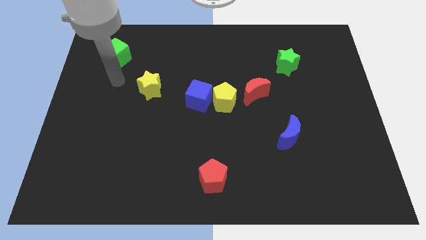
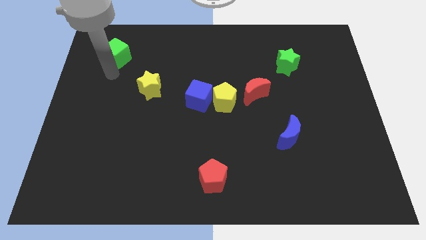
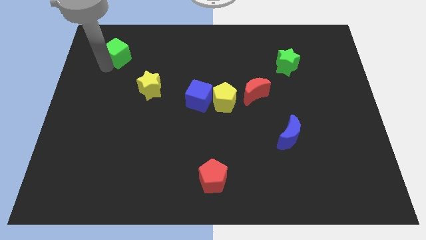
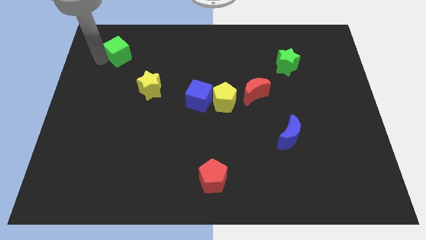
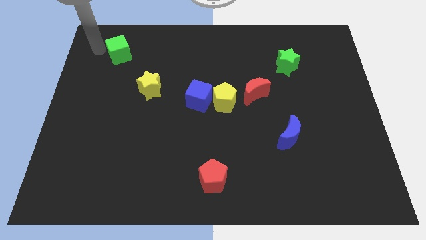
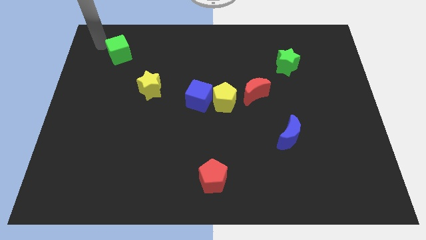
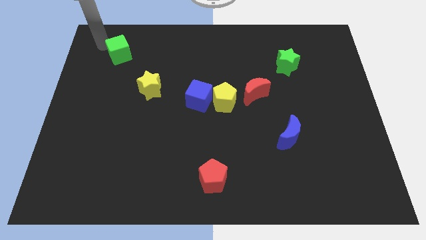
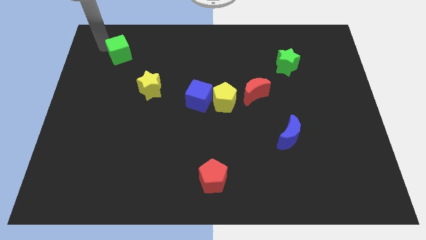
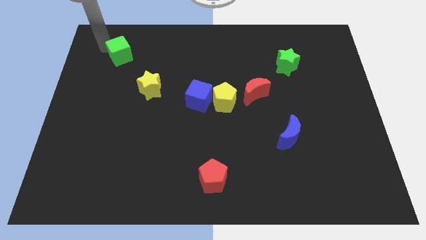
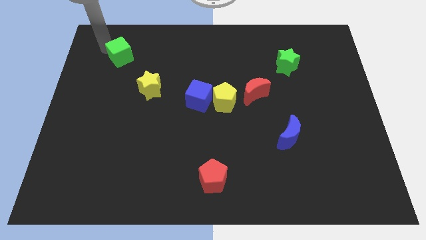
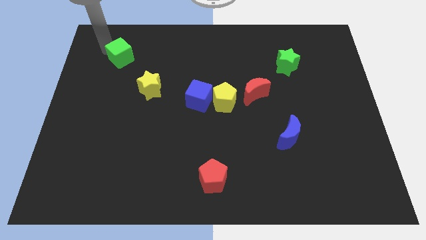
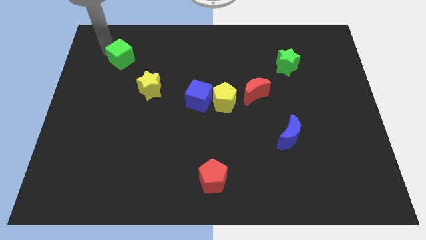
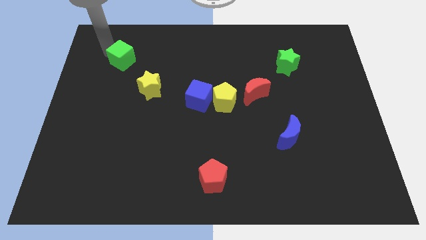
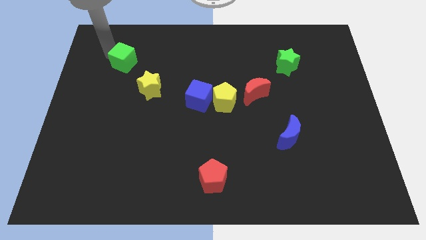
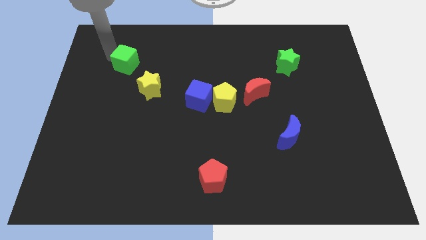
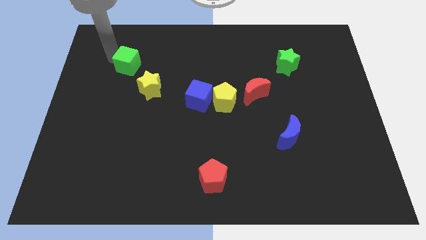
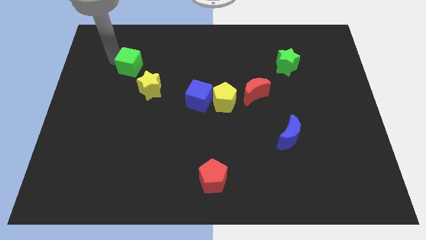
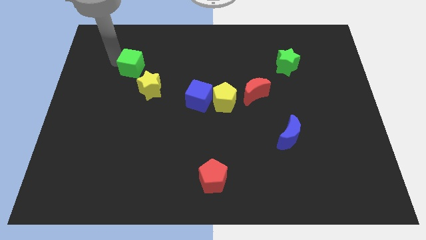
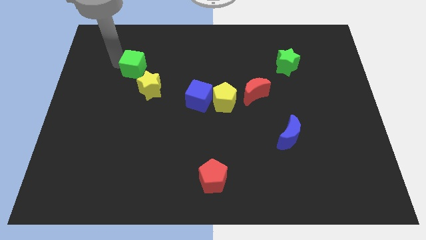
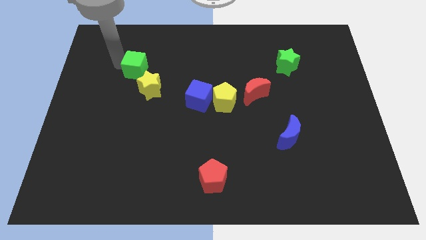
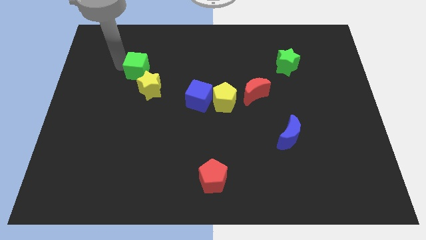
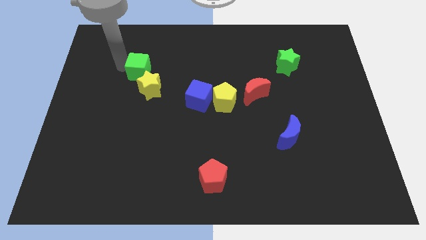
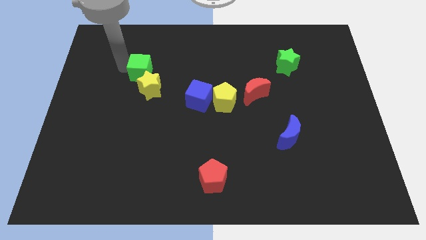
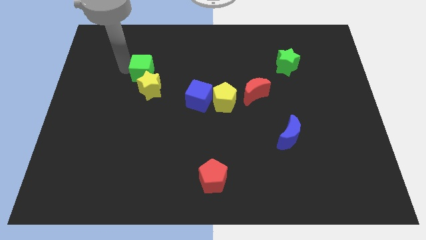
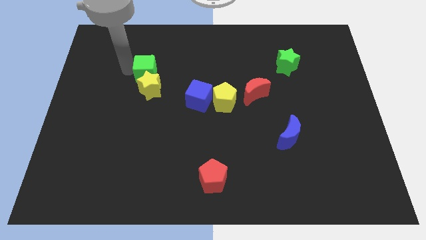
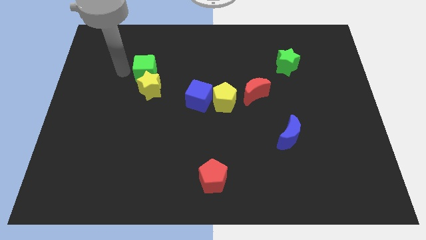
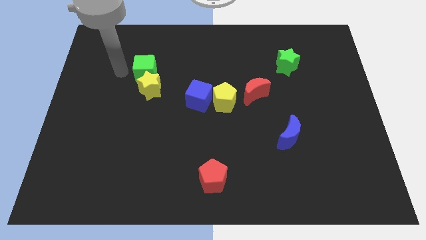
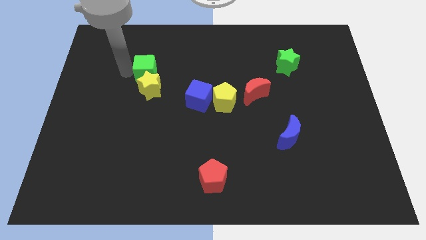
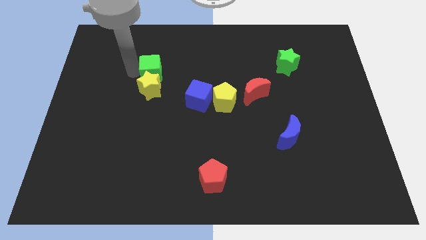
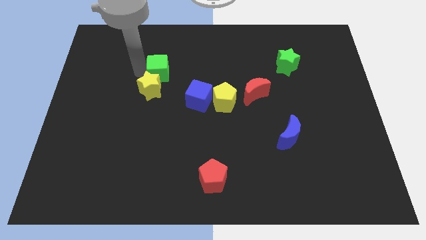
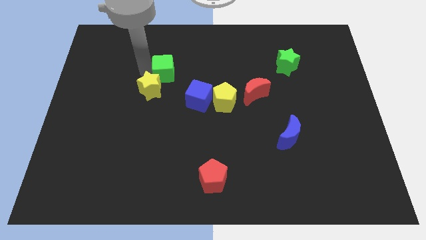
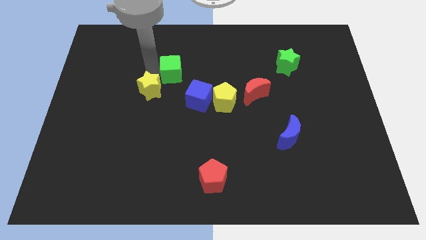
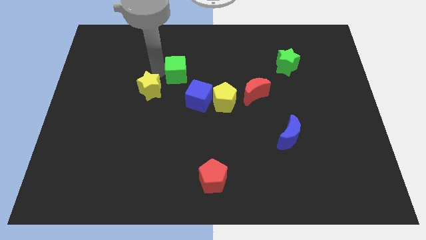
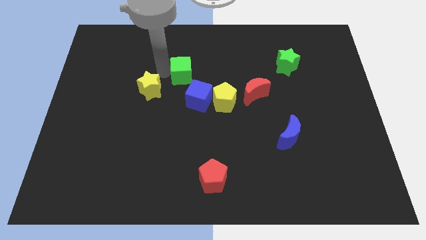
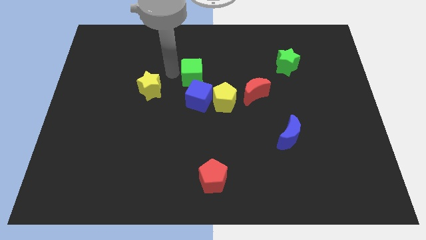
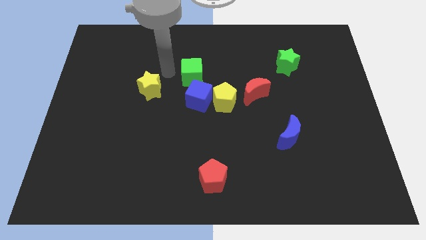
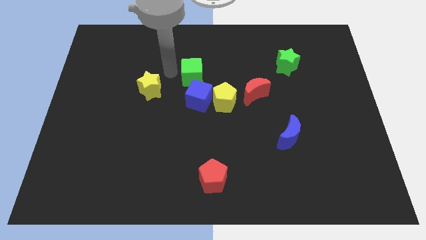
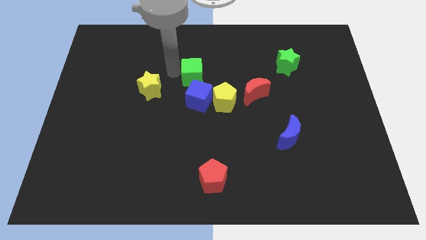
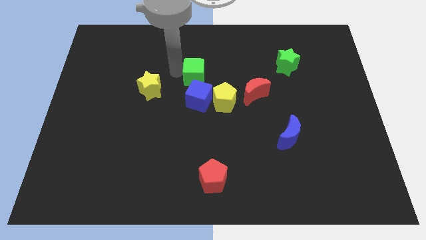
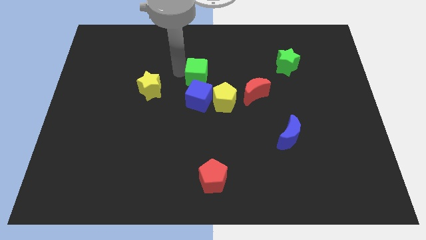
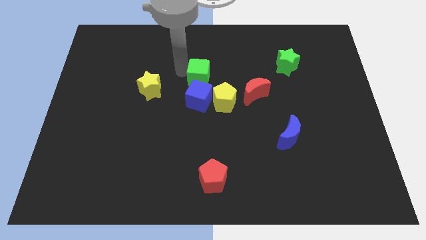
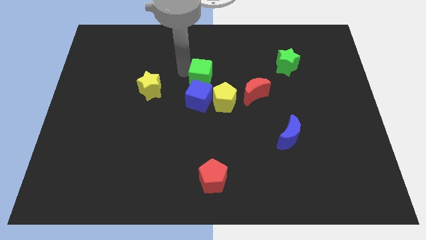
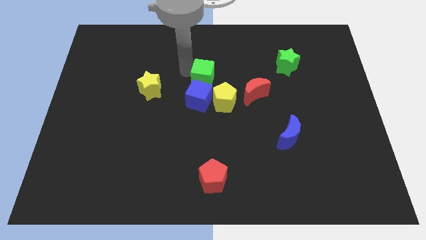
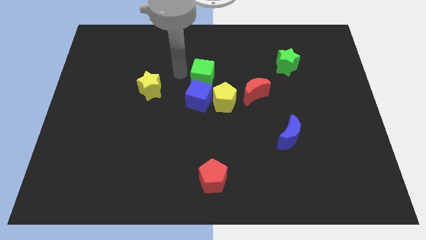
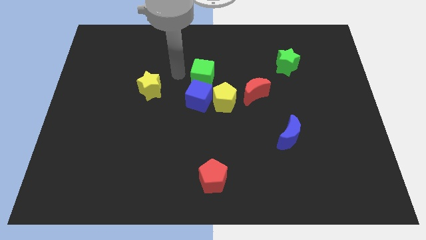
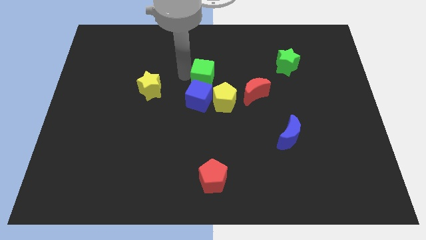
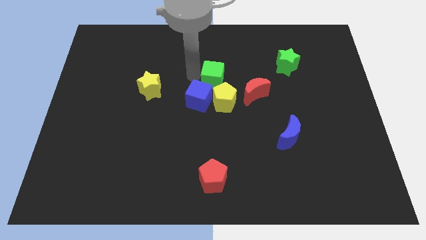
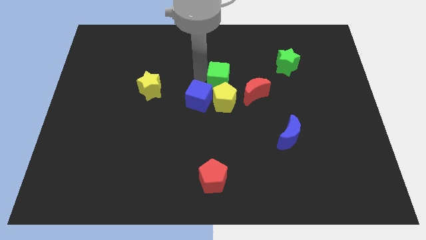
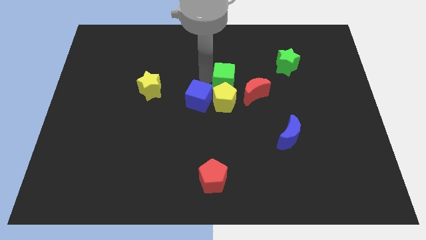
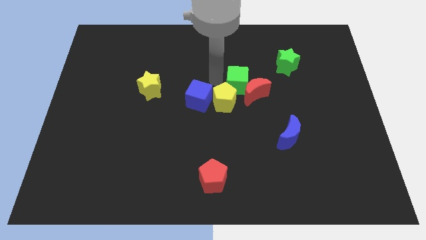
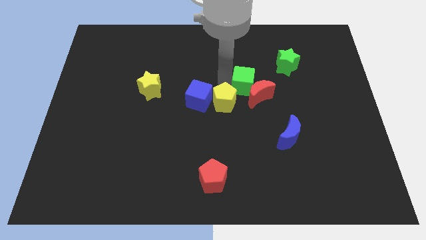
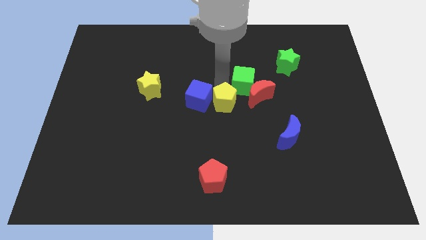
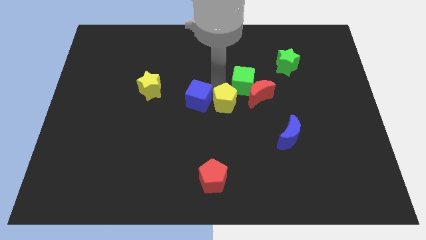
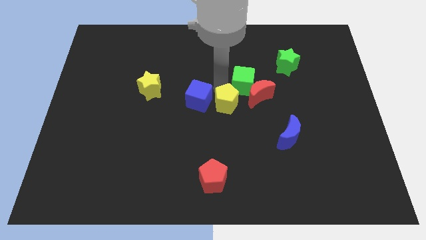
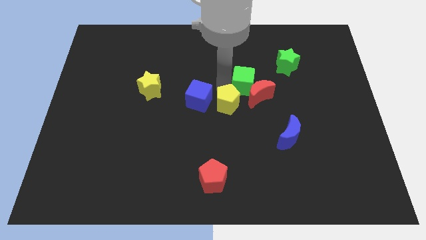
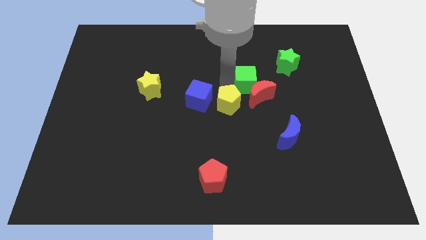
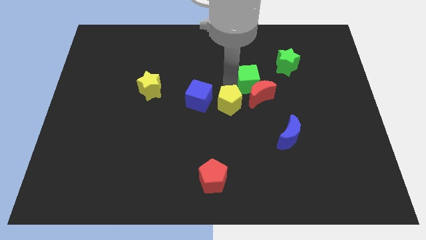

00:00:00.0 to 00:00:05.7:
move the green cube to the bottom left side of the green star

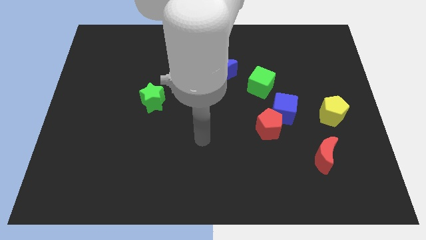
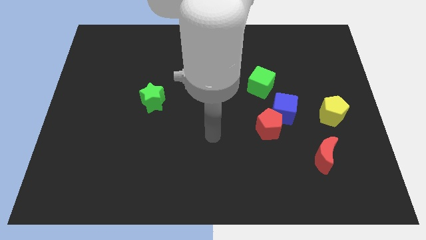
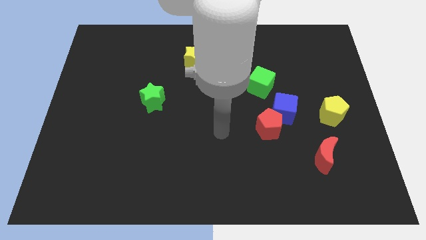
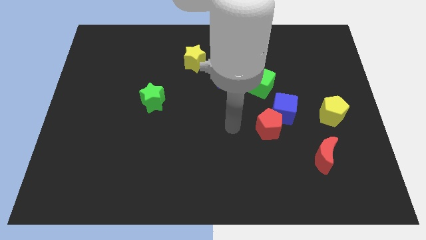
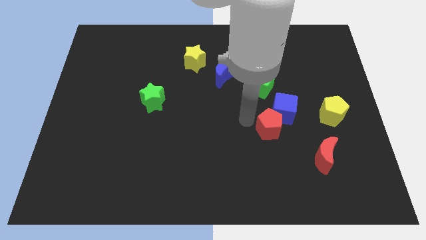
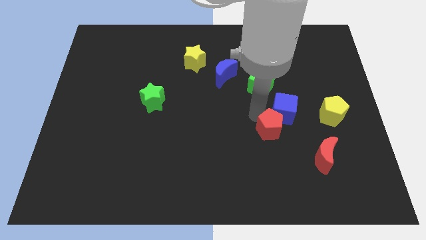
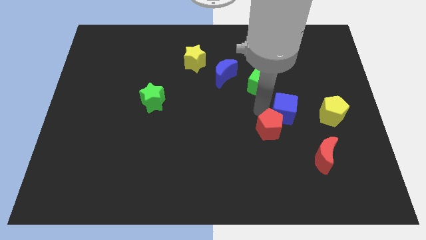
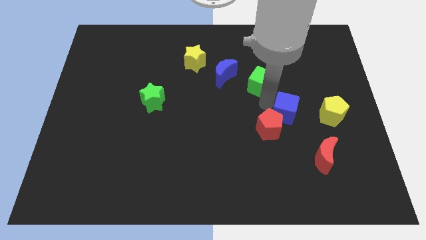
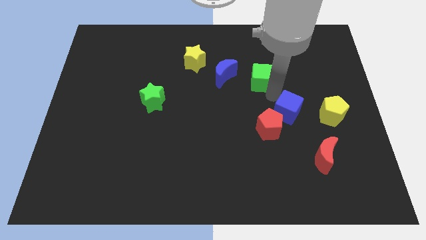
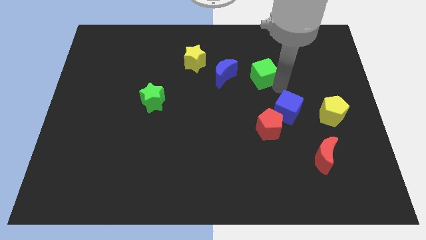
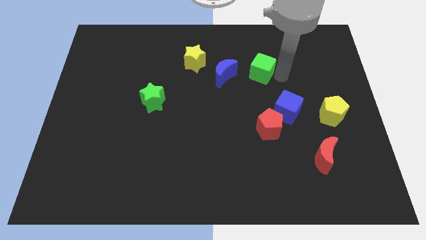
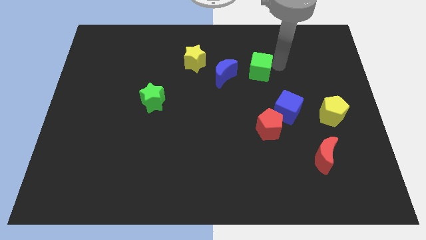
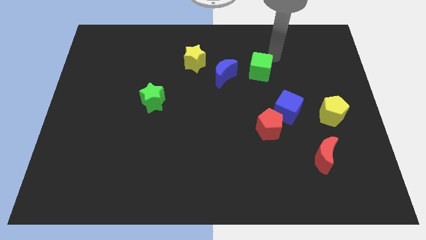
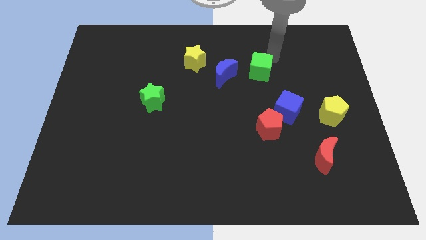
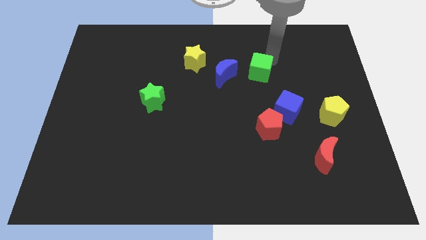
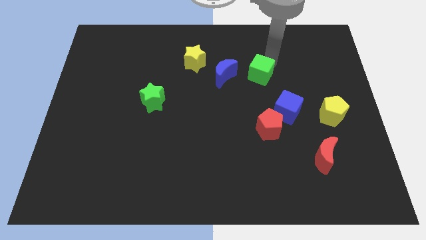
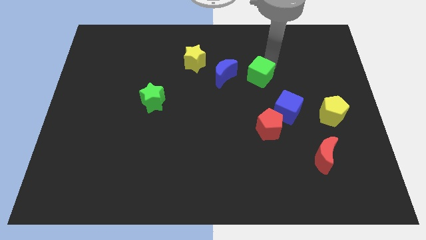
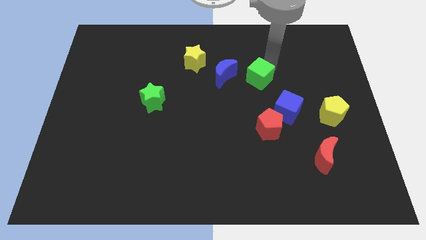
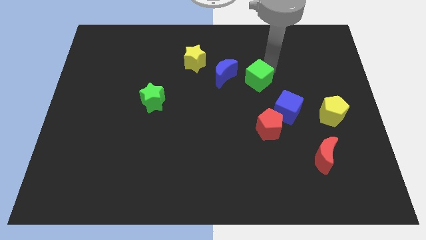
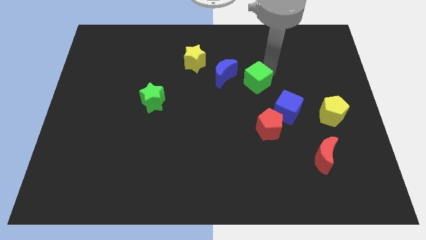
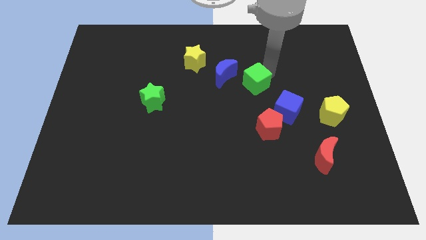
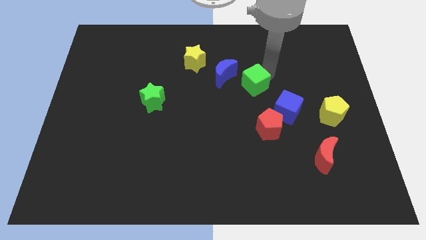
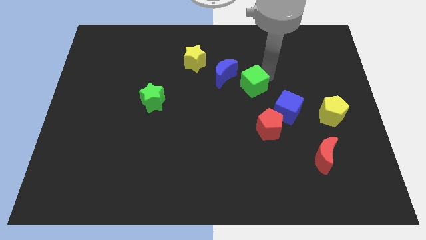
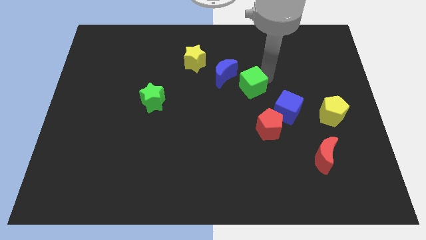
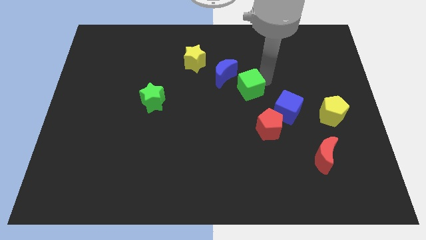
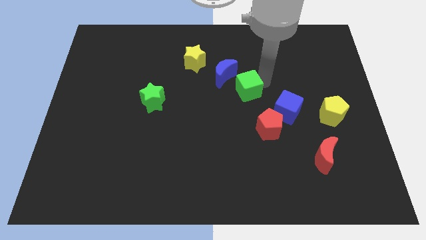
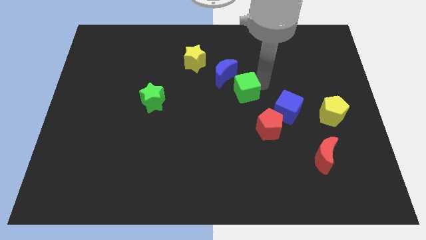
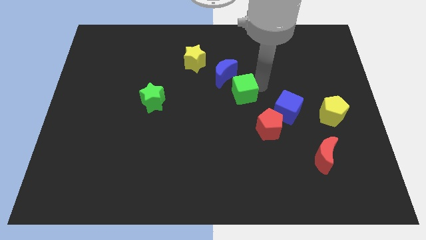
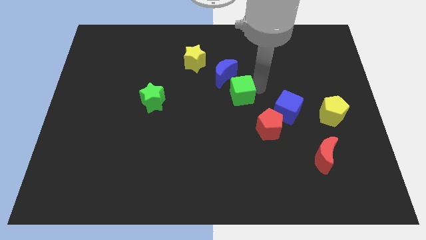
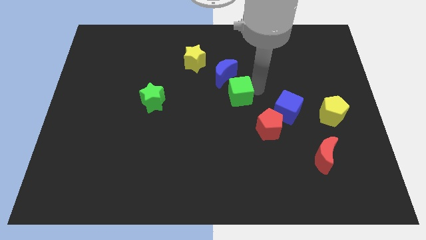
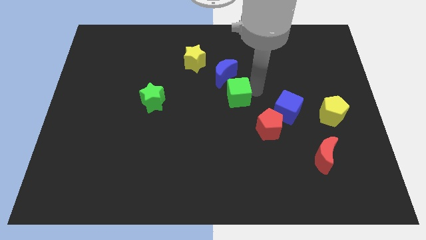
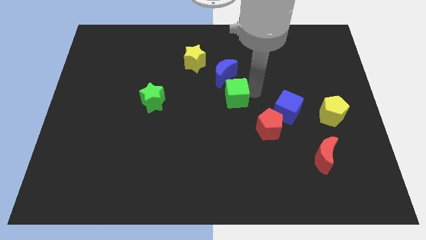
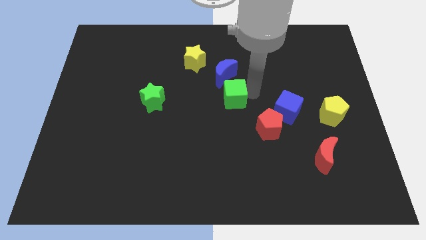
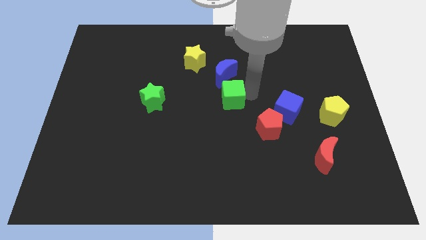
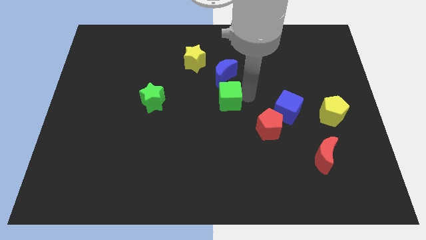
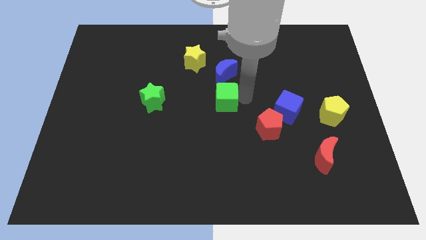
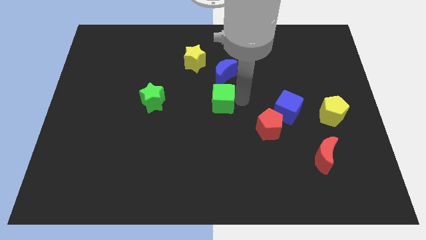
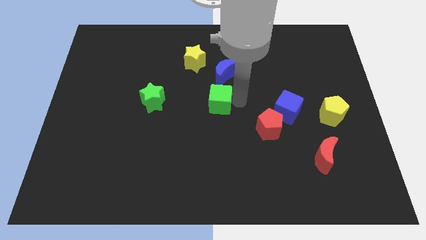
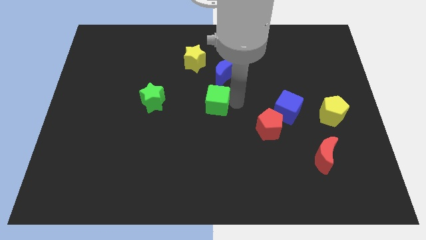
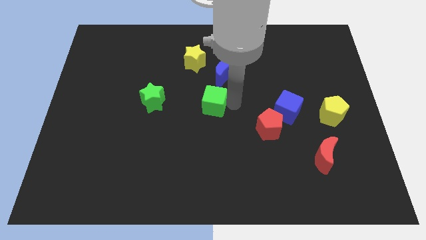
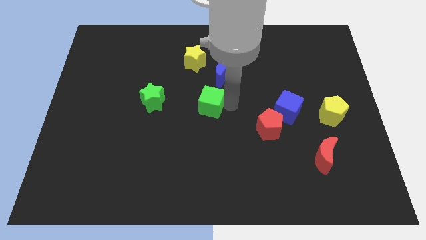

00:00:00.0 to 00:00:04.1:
push the green cube to the bottom side of the yellow star
